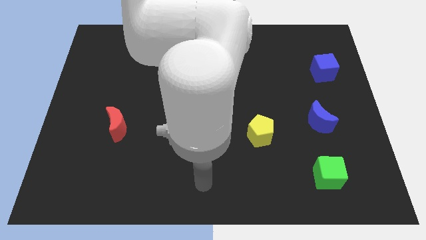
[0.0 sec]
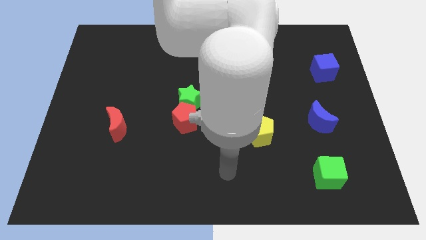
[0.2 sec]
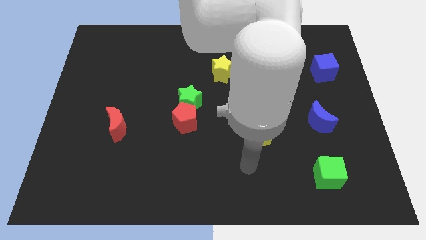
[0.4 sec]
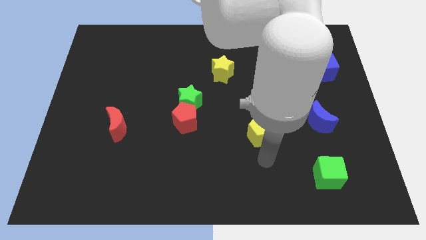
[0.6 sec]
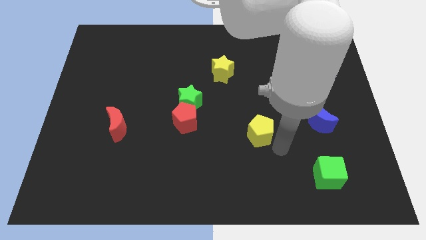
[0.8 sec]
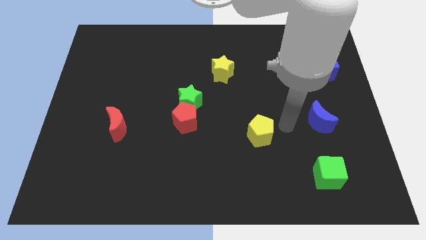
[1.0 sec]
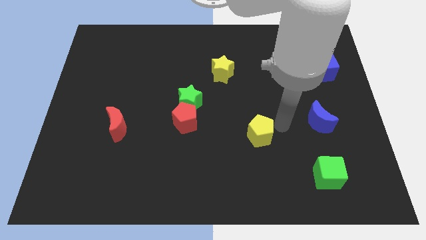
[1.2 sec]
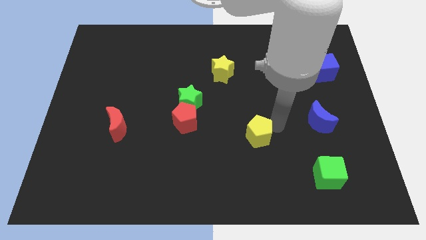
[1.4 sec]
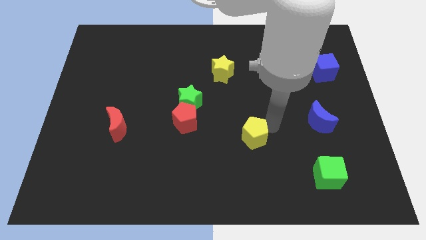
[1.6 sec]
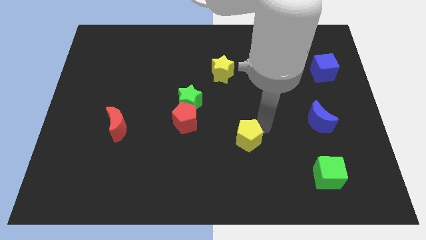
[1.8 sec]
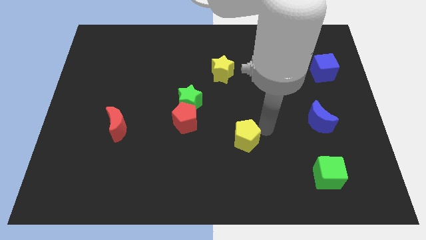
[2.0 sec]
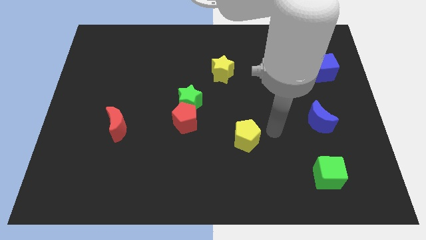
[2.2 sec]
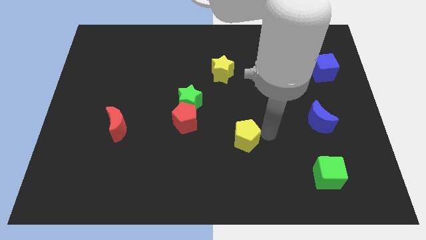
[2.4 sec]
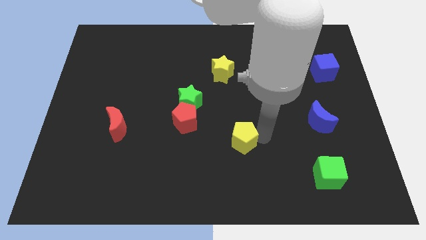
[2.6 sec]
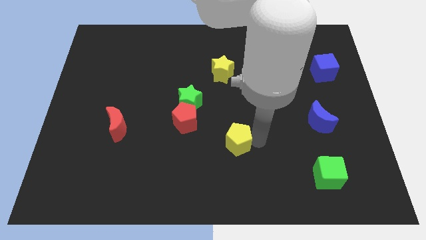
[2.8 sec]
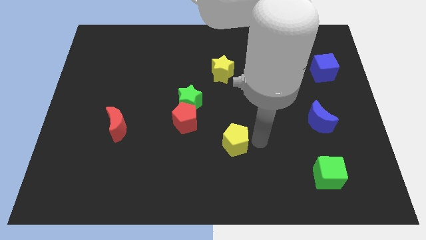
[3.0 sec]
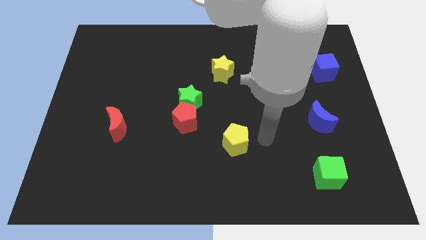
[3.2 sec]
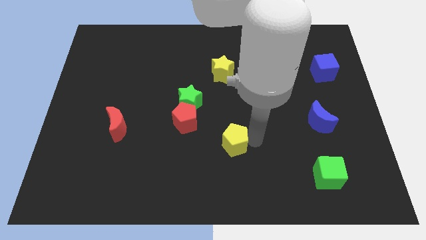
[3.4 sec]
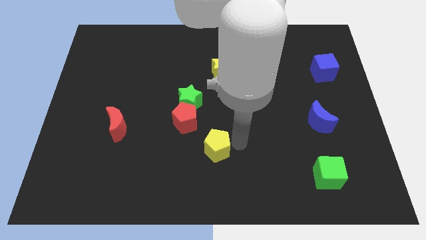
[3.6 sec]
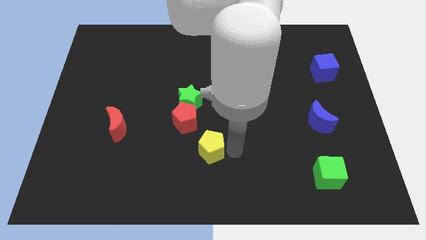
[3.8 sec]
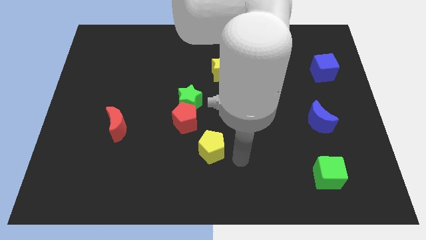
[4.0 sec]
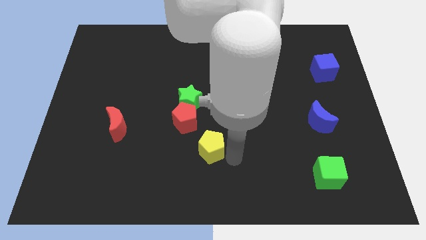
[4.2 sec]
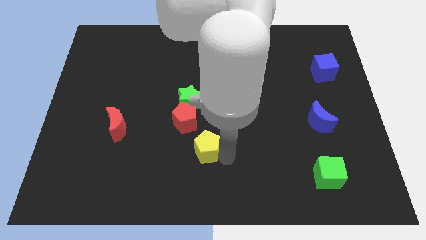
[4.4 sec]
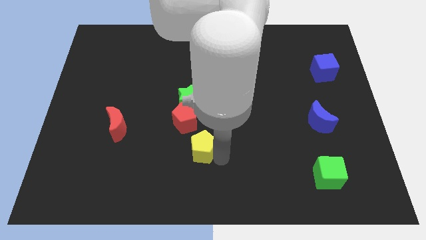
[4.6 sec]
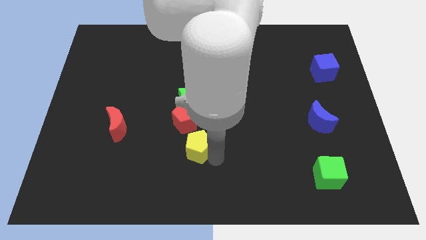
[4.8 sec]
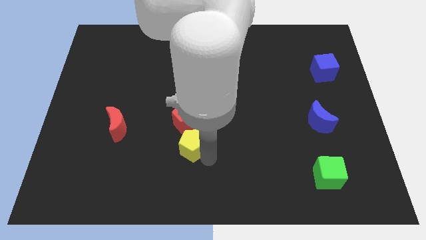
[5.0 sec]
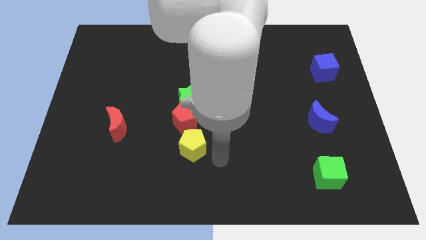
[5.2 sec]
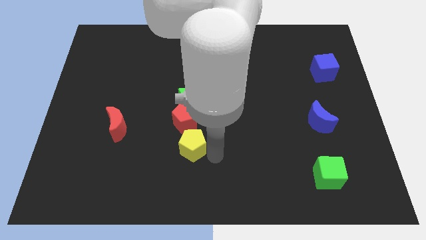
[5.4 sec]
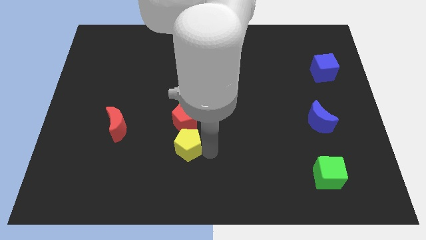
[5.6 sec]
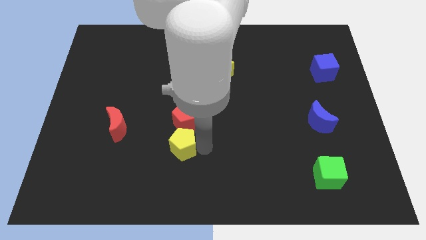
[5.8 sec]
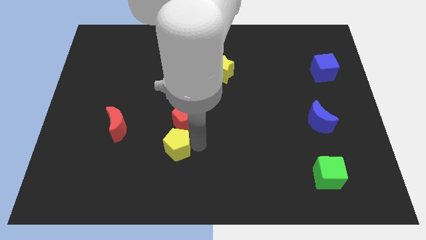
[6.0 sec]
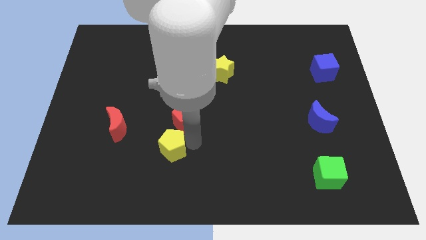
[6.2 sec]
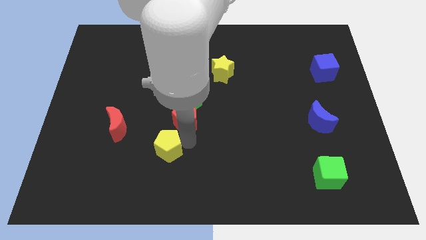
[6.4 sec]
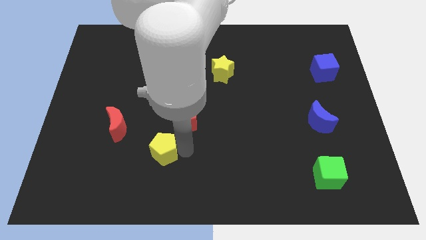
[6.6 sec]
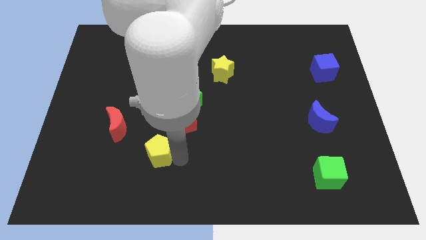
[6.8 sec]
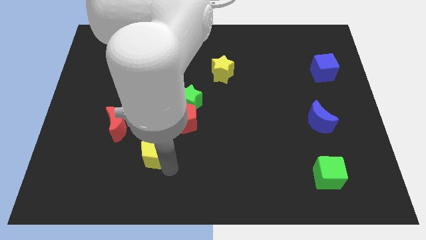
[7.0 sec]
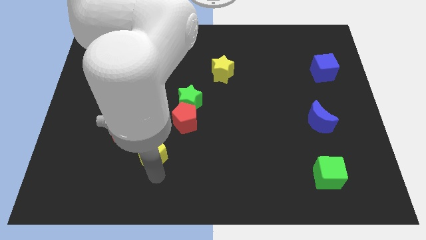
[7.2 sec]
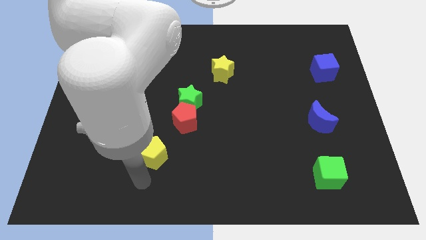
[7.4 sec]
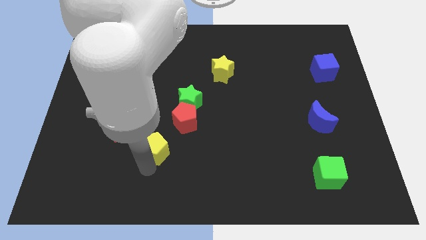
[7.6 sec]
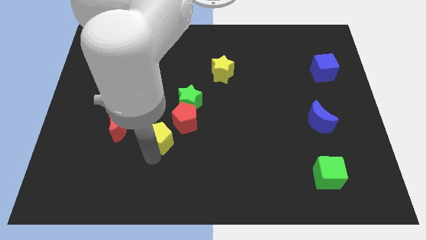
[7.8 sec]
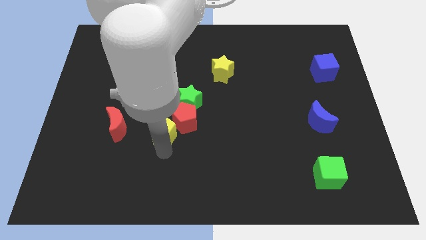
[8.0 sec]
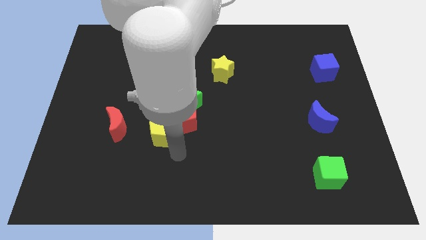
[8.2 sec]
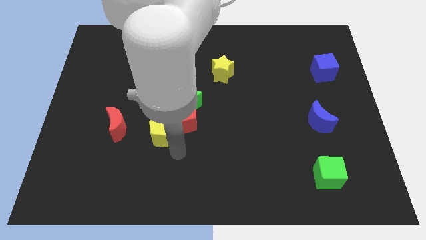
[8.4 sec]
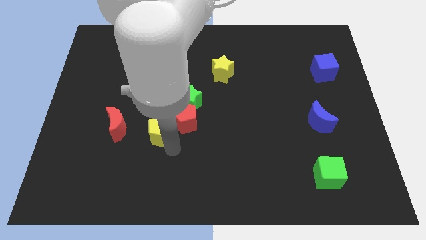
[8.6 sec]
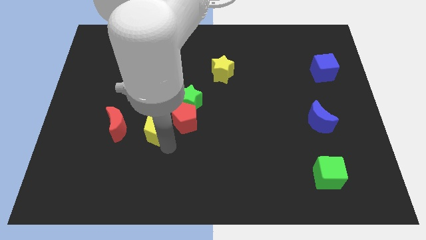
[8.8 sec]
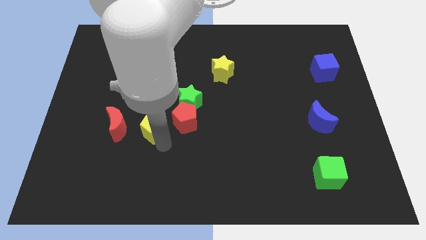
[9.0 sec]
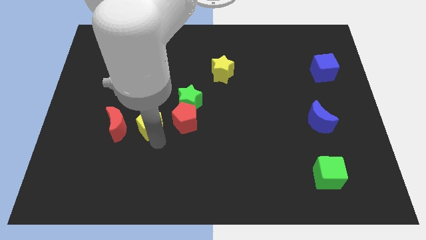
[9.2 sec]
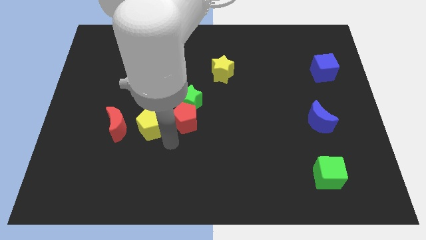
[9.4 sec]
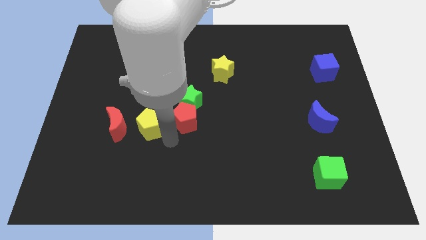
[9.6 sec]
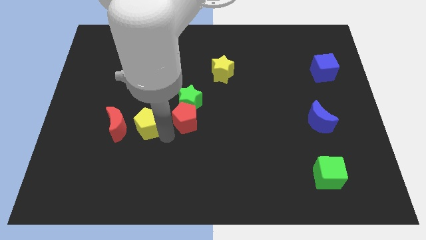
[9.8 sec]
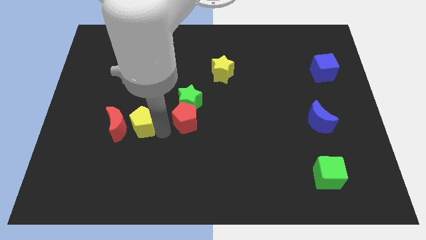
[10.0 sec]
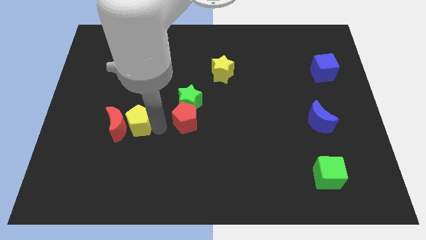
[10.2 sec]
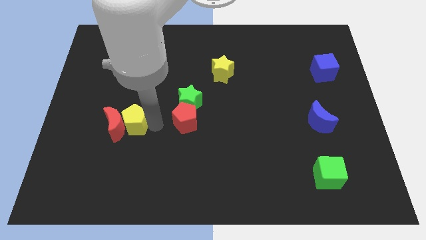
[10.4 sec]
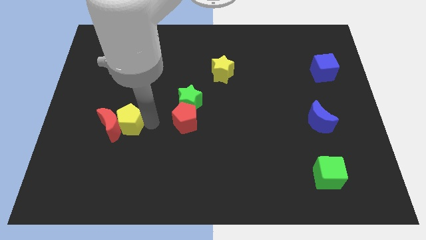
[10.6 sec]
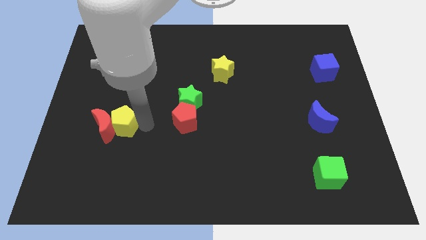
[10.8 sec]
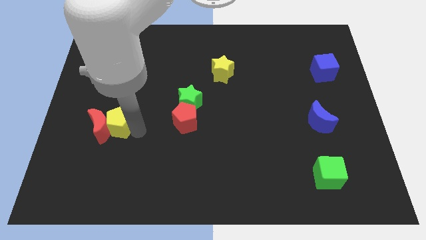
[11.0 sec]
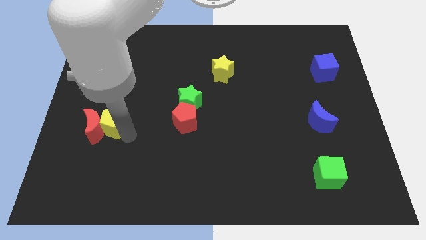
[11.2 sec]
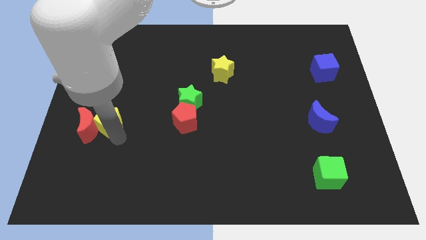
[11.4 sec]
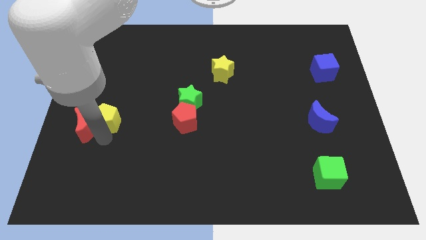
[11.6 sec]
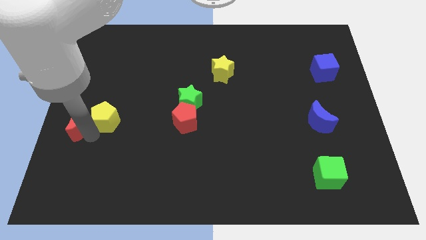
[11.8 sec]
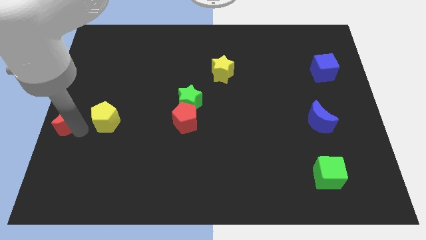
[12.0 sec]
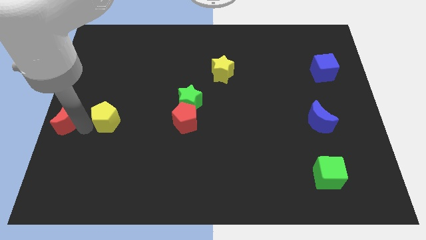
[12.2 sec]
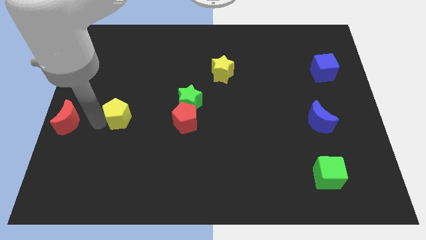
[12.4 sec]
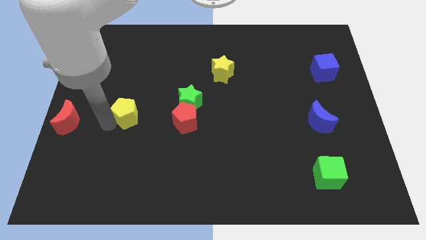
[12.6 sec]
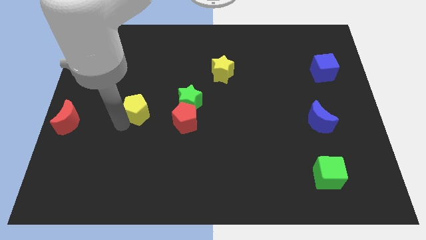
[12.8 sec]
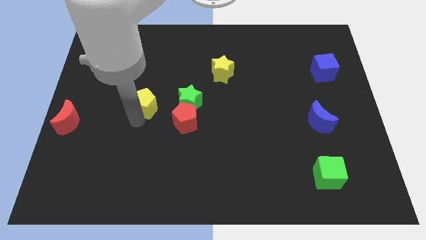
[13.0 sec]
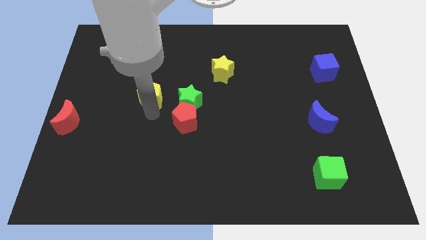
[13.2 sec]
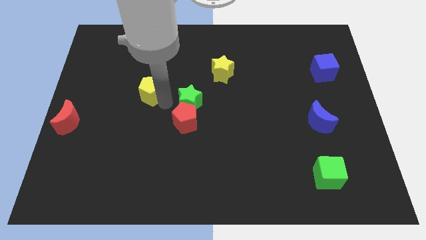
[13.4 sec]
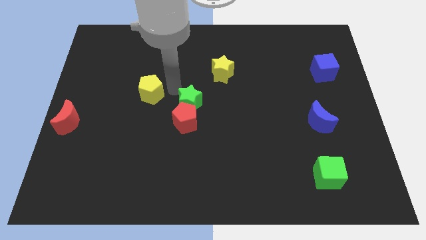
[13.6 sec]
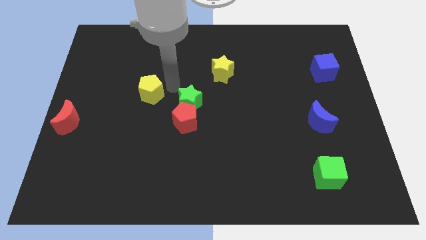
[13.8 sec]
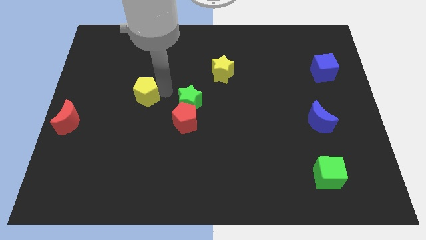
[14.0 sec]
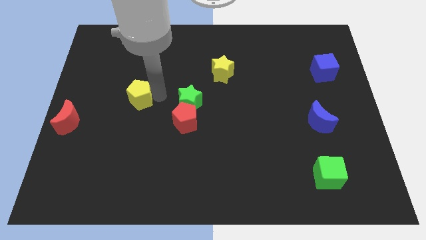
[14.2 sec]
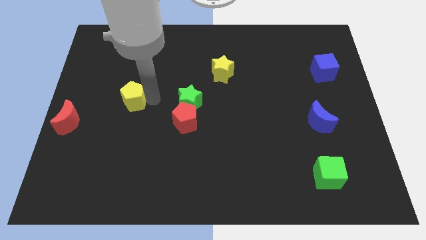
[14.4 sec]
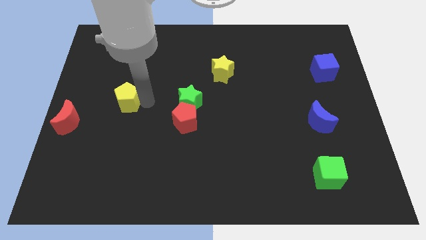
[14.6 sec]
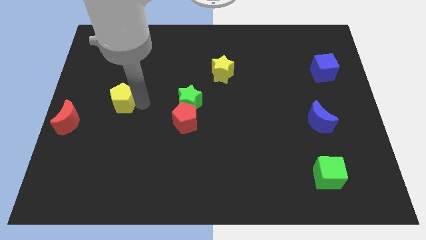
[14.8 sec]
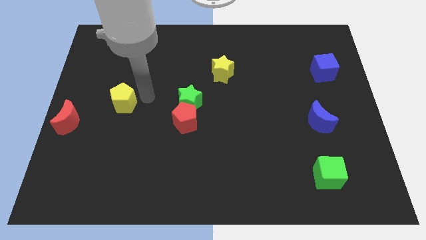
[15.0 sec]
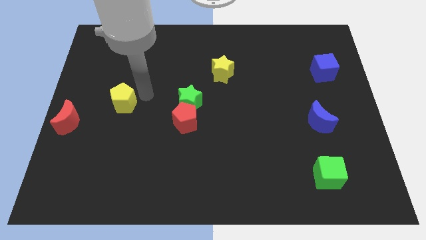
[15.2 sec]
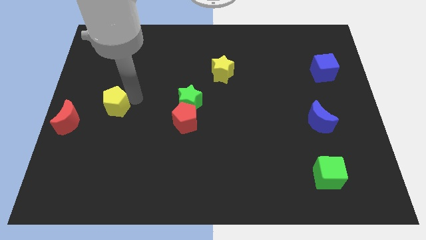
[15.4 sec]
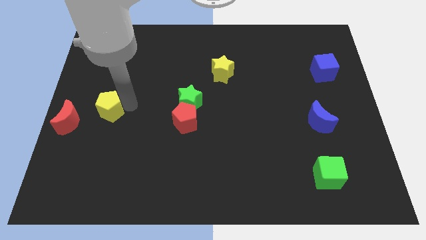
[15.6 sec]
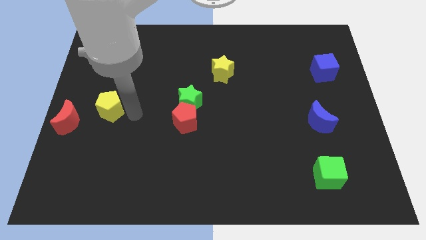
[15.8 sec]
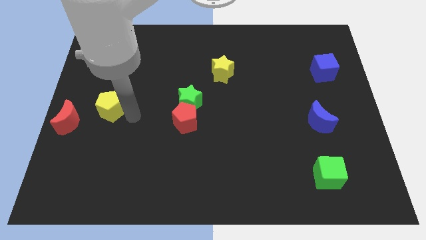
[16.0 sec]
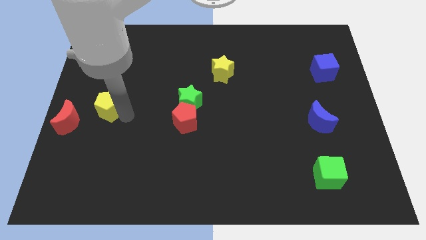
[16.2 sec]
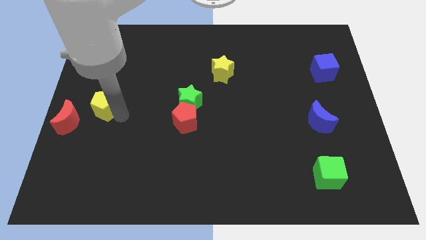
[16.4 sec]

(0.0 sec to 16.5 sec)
move the yellow pentagon to the left side
